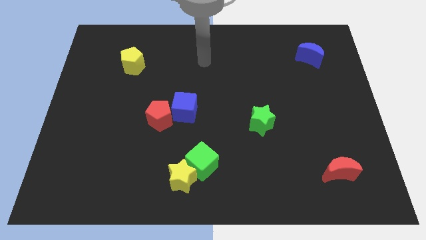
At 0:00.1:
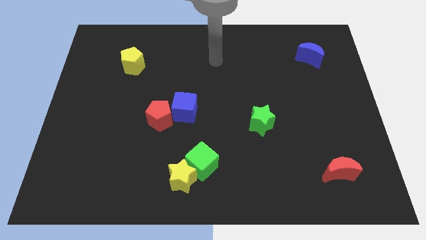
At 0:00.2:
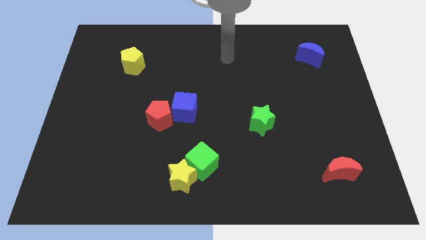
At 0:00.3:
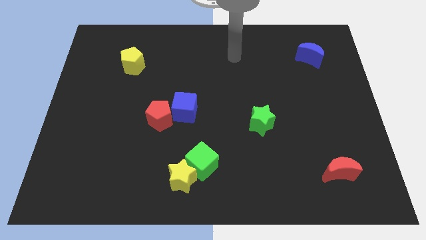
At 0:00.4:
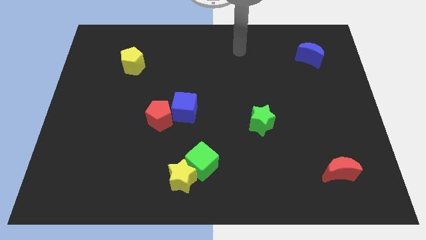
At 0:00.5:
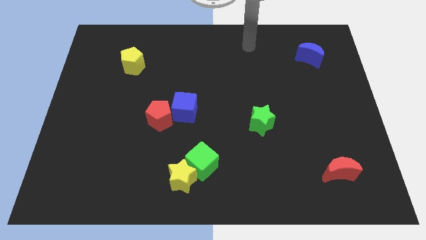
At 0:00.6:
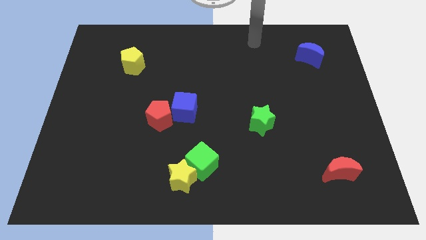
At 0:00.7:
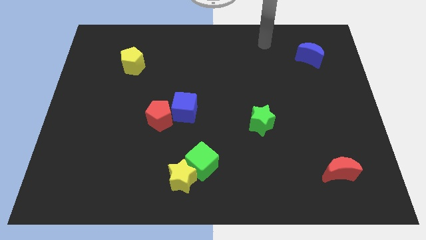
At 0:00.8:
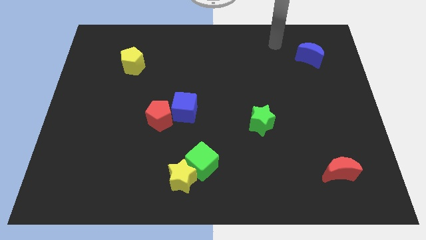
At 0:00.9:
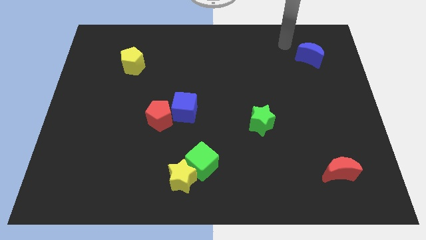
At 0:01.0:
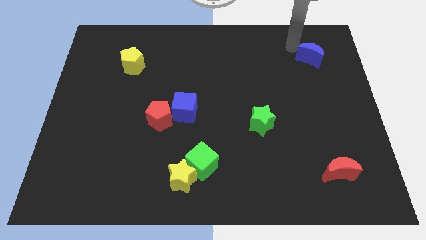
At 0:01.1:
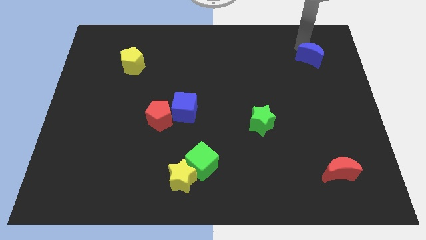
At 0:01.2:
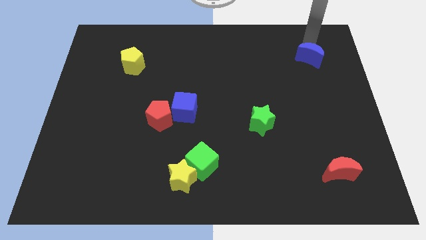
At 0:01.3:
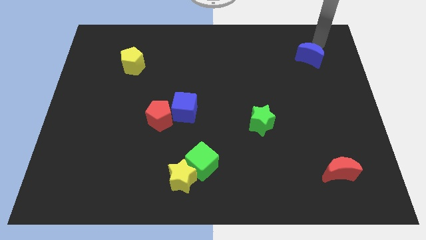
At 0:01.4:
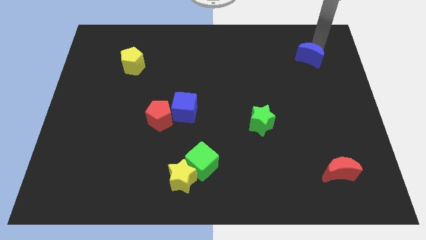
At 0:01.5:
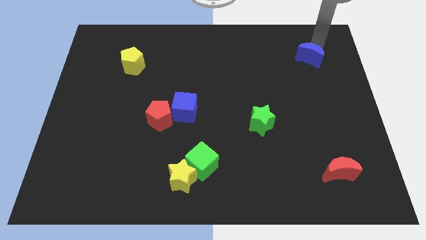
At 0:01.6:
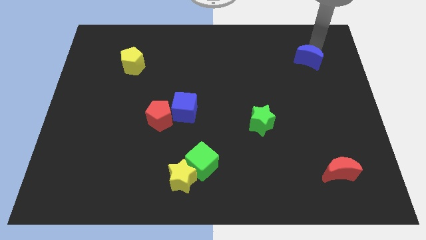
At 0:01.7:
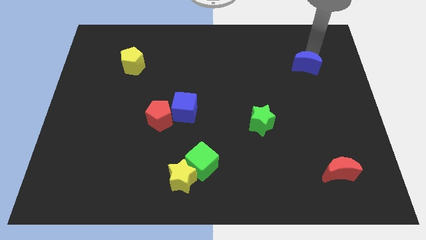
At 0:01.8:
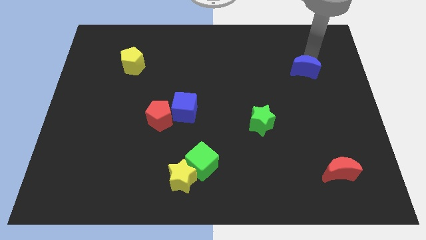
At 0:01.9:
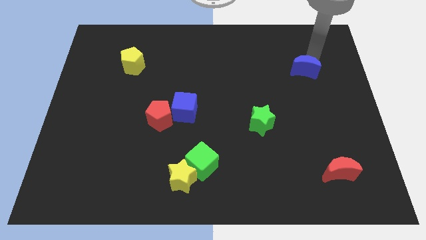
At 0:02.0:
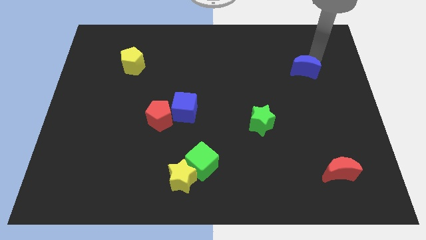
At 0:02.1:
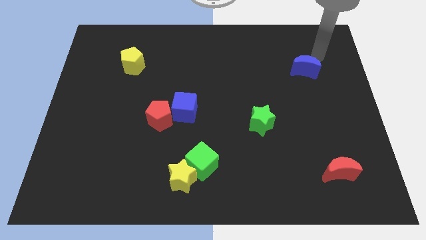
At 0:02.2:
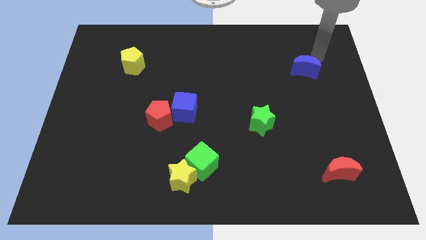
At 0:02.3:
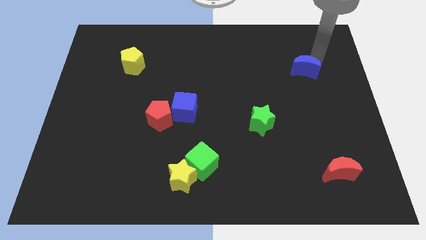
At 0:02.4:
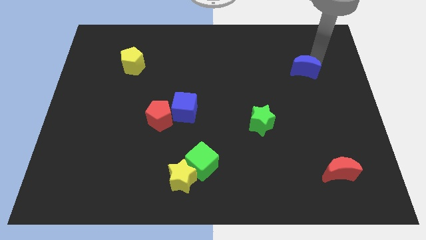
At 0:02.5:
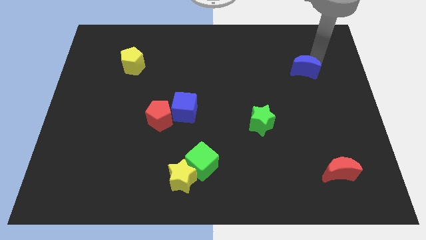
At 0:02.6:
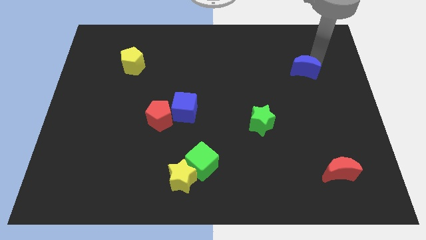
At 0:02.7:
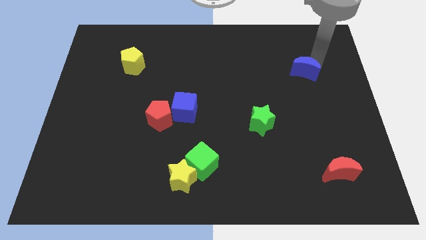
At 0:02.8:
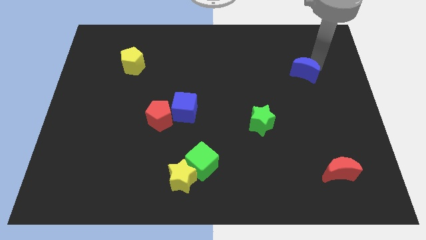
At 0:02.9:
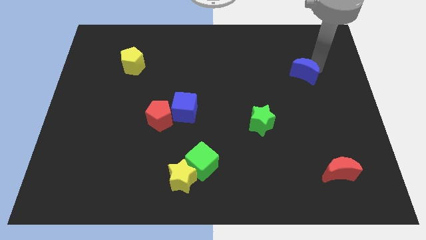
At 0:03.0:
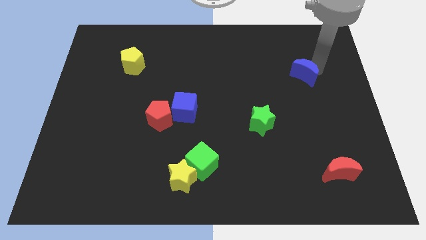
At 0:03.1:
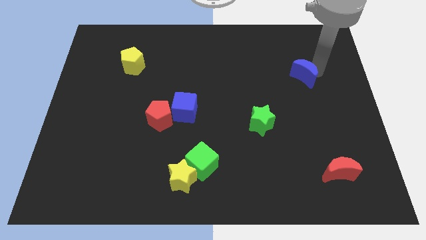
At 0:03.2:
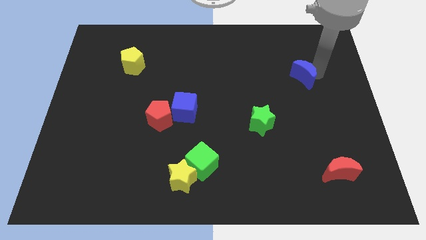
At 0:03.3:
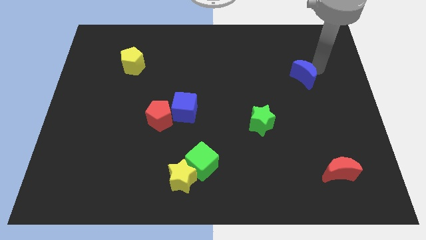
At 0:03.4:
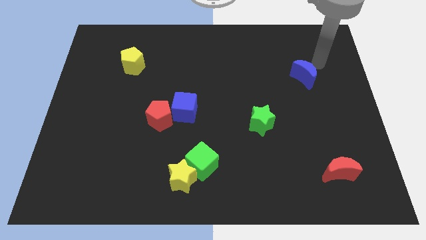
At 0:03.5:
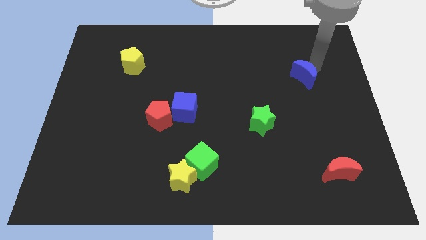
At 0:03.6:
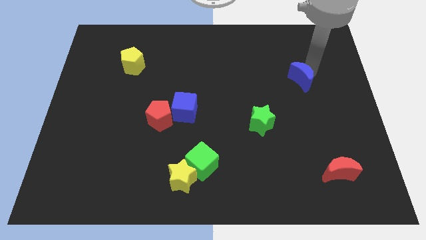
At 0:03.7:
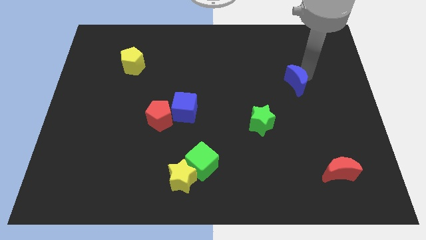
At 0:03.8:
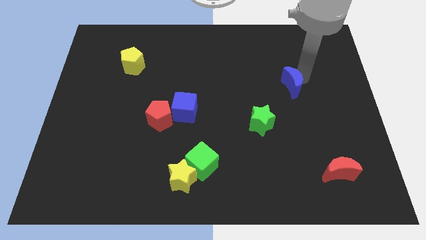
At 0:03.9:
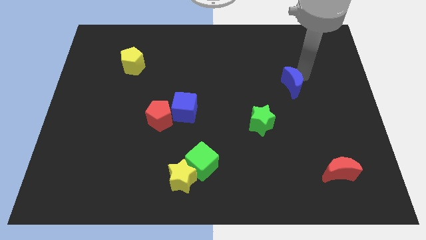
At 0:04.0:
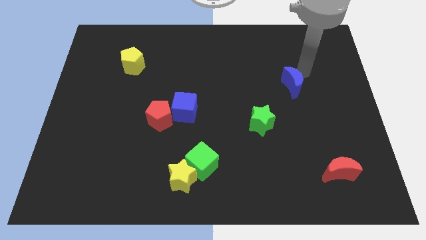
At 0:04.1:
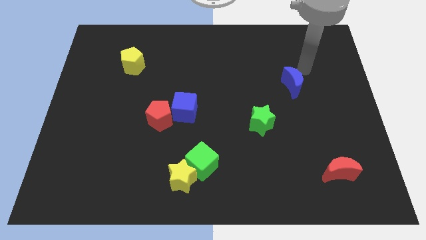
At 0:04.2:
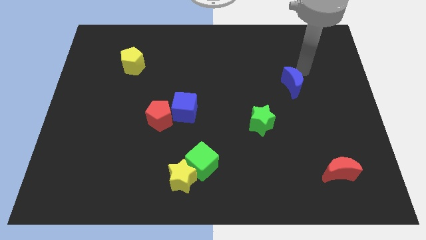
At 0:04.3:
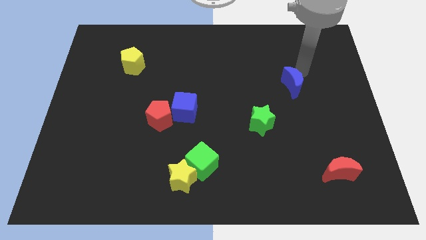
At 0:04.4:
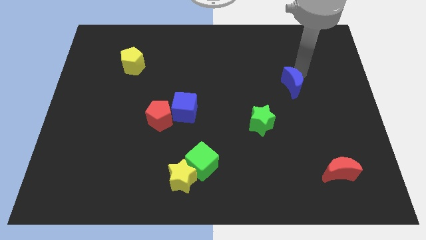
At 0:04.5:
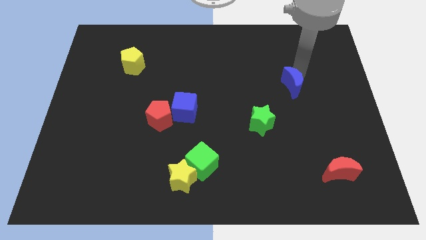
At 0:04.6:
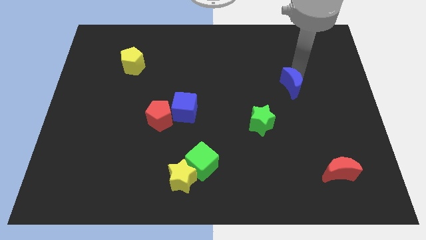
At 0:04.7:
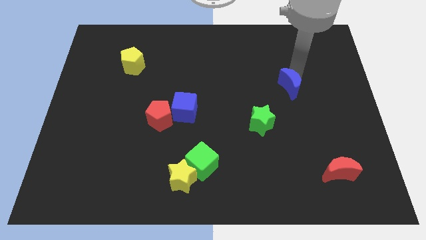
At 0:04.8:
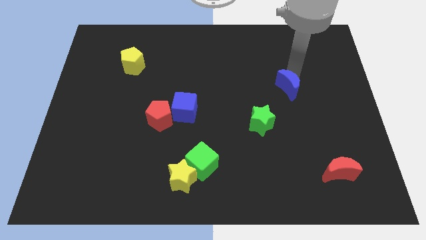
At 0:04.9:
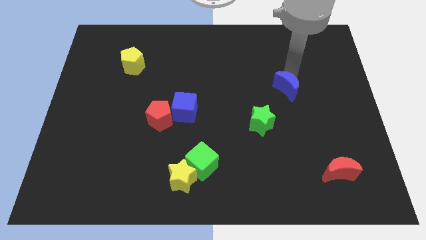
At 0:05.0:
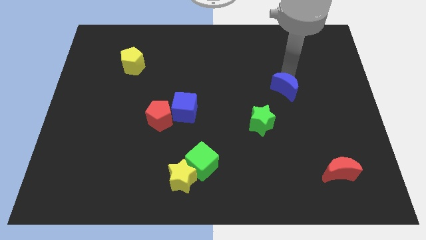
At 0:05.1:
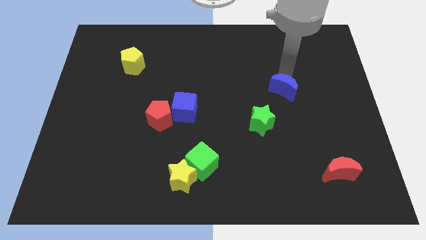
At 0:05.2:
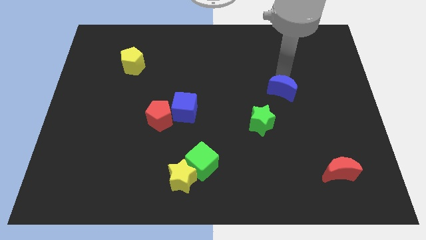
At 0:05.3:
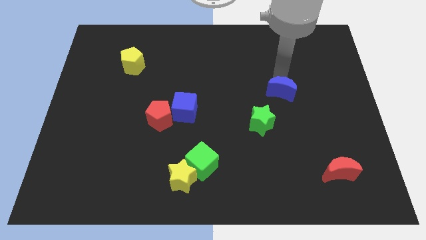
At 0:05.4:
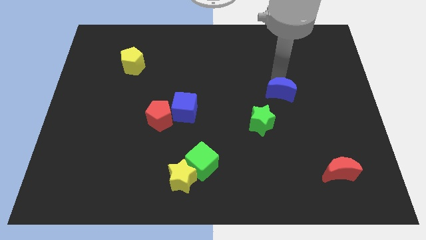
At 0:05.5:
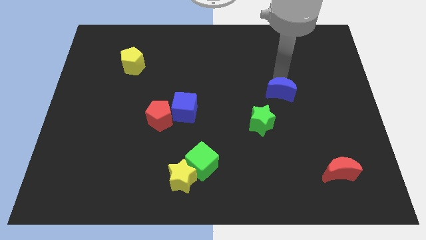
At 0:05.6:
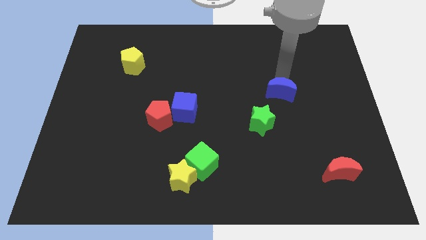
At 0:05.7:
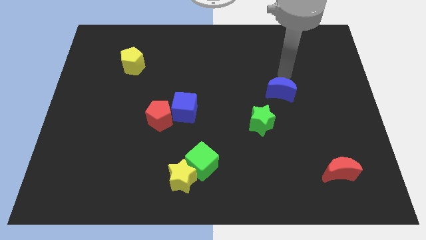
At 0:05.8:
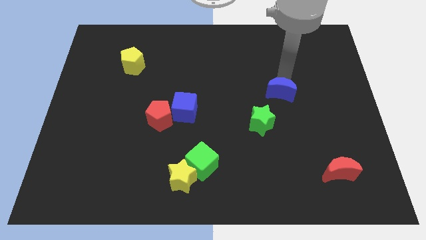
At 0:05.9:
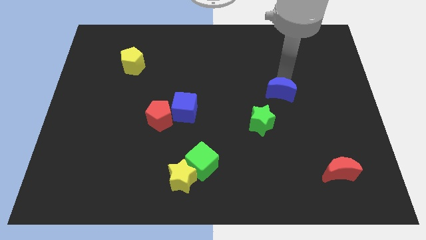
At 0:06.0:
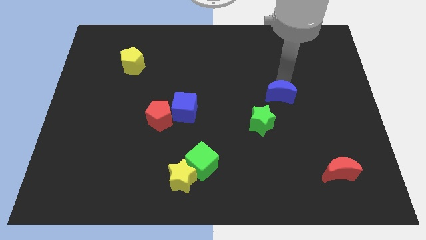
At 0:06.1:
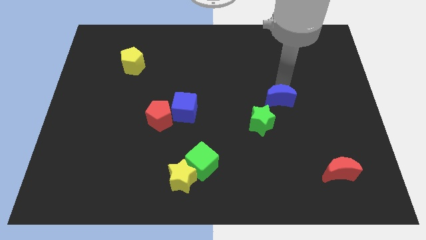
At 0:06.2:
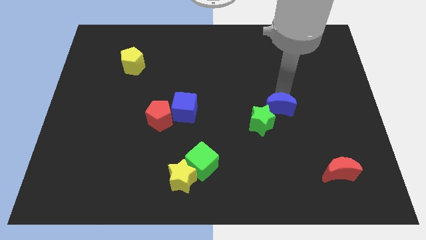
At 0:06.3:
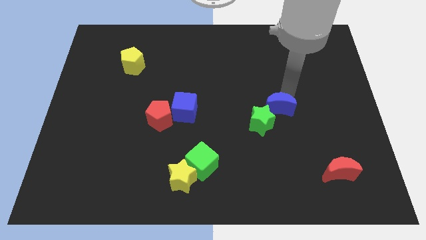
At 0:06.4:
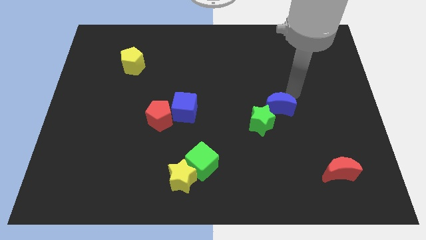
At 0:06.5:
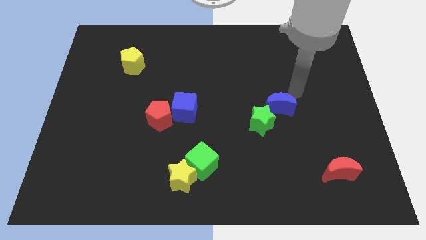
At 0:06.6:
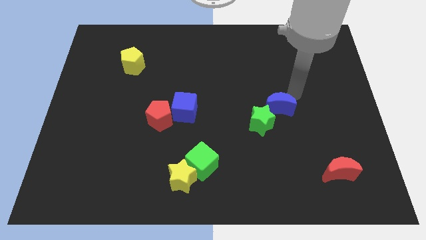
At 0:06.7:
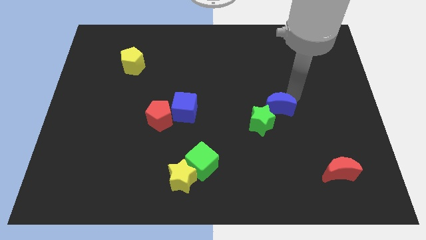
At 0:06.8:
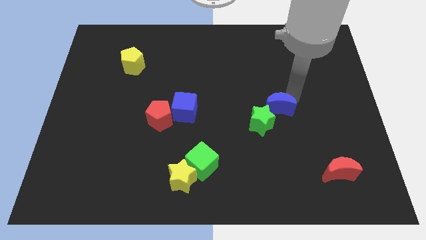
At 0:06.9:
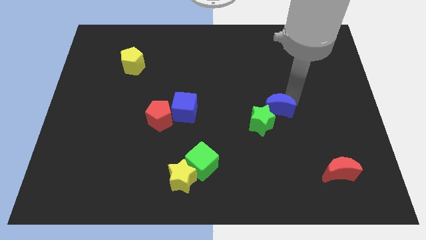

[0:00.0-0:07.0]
push the blue moon close to the green star
